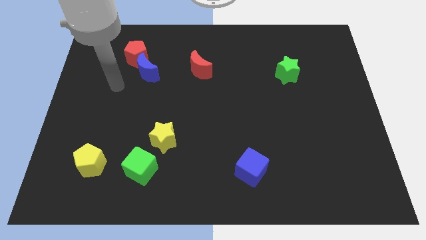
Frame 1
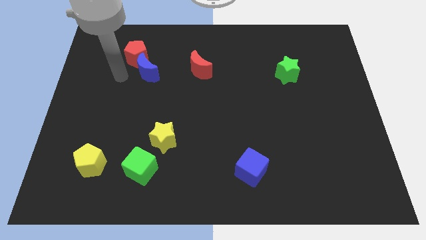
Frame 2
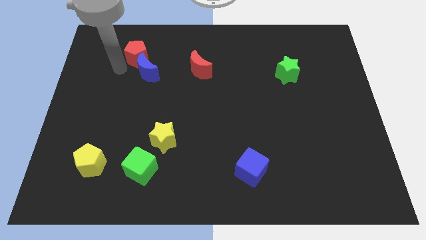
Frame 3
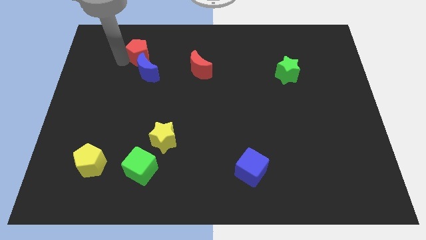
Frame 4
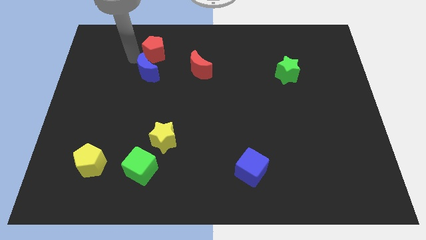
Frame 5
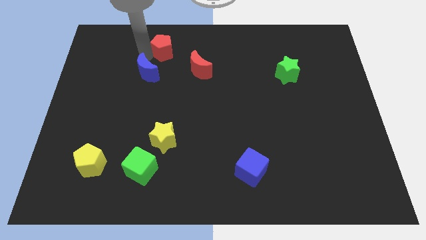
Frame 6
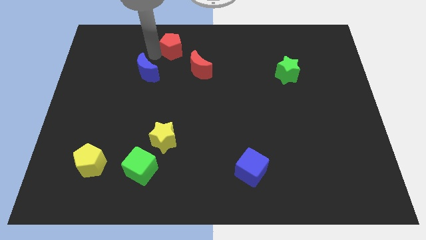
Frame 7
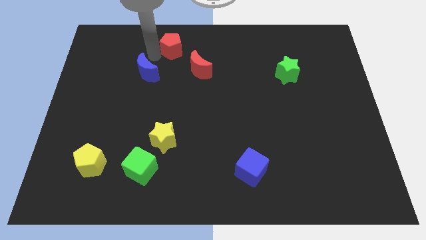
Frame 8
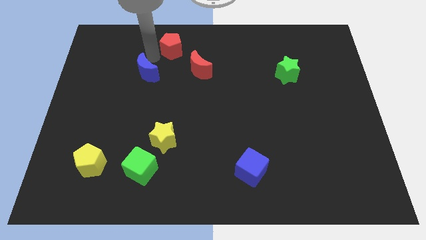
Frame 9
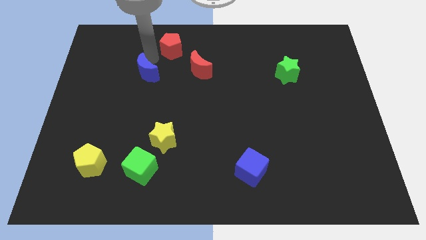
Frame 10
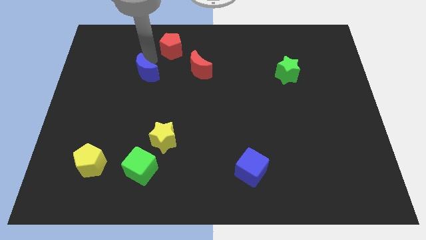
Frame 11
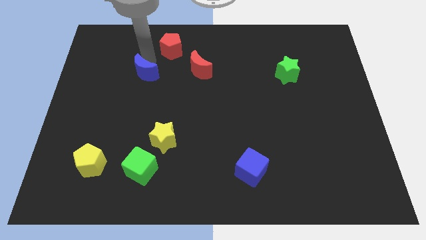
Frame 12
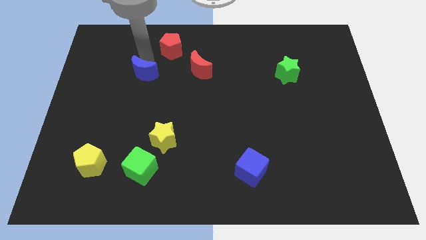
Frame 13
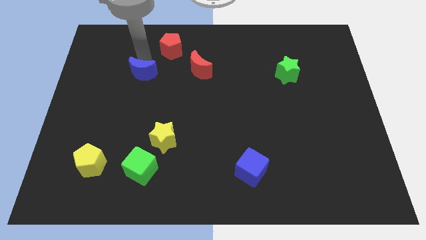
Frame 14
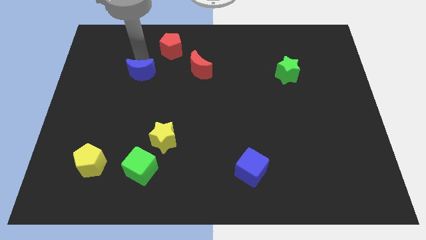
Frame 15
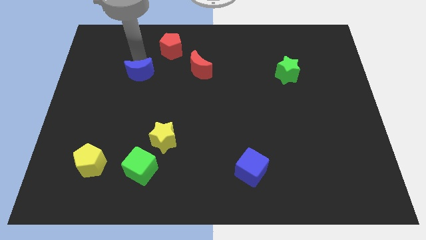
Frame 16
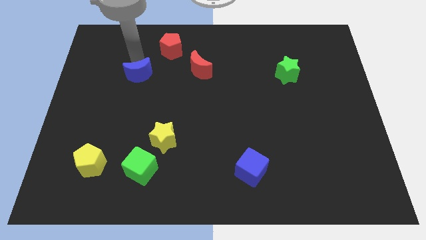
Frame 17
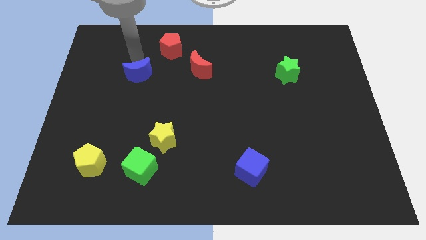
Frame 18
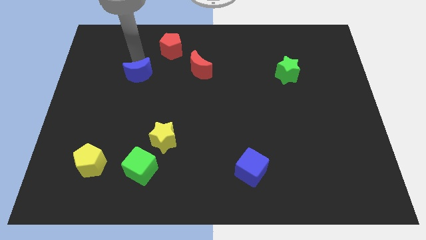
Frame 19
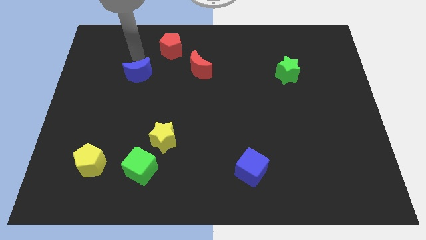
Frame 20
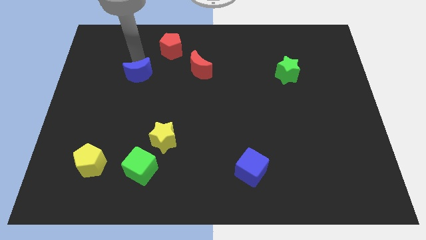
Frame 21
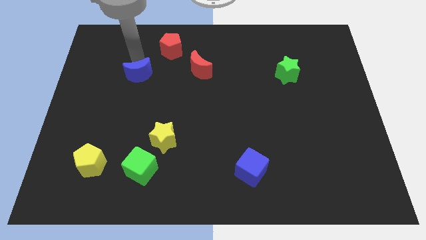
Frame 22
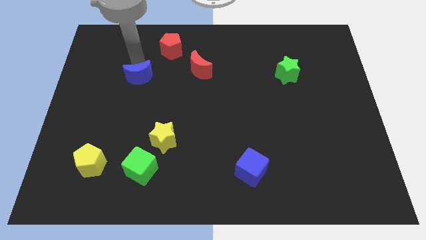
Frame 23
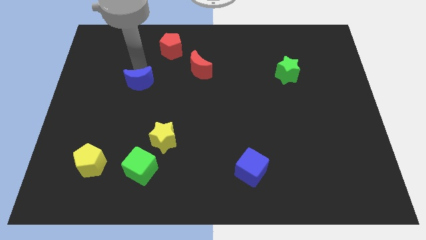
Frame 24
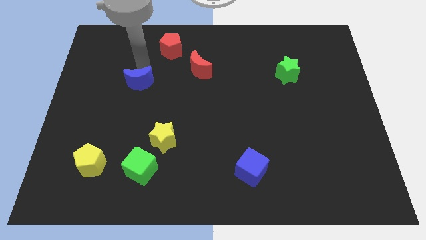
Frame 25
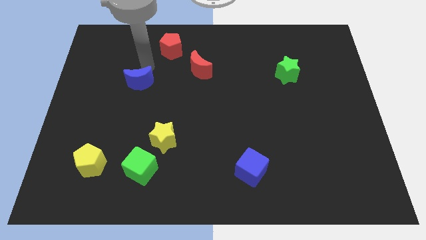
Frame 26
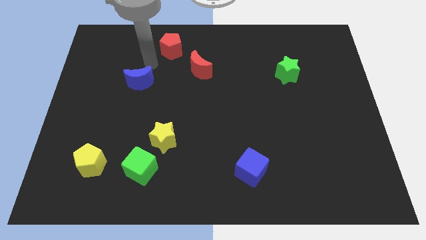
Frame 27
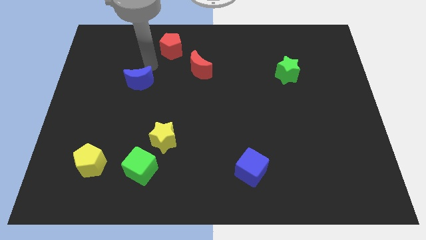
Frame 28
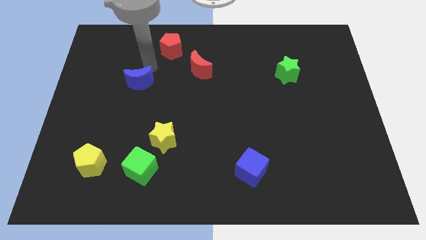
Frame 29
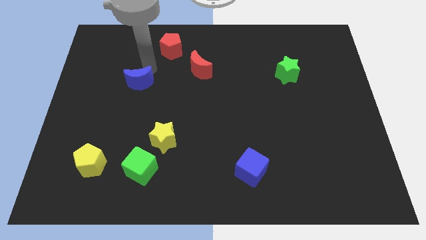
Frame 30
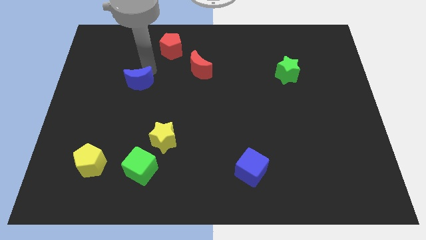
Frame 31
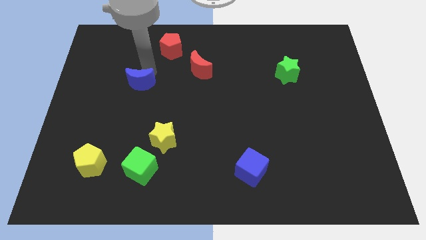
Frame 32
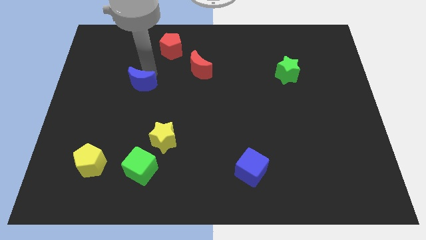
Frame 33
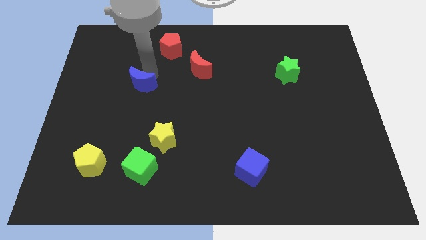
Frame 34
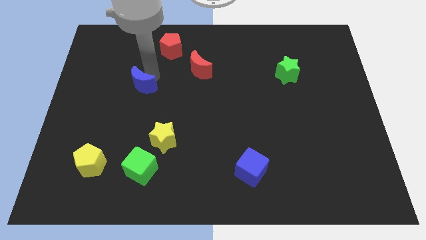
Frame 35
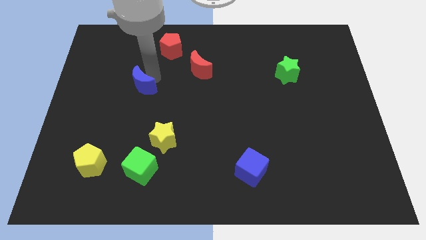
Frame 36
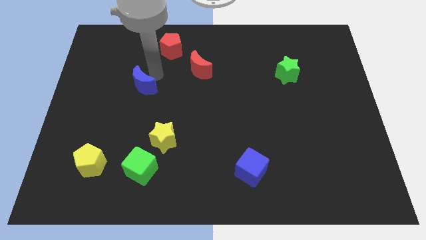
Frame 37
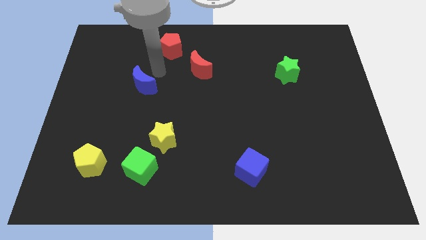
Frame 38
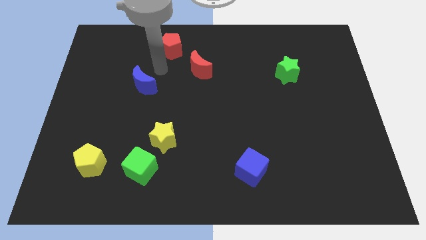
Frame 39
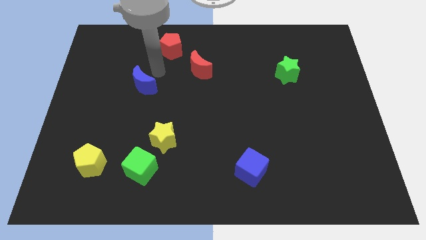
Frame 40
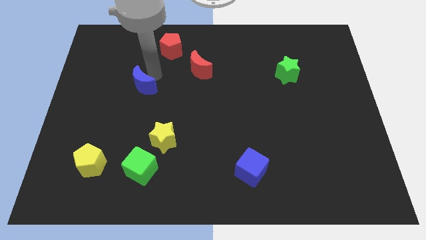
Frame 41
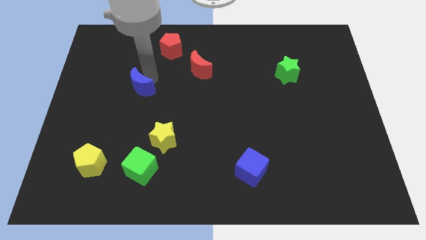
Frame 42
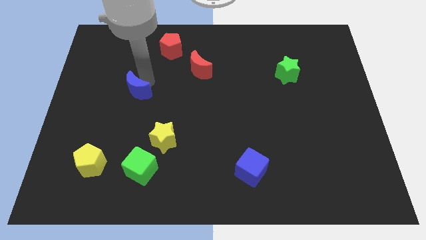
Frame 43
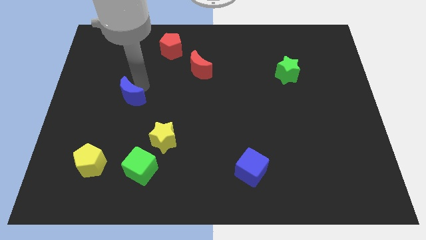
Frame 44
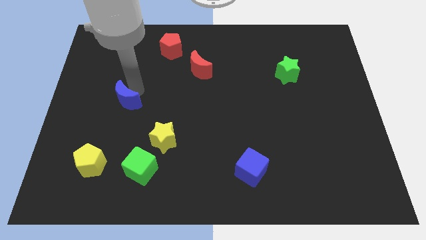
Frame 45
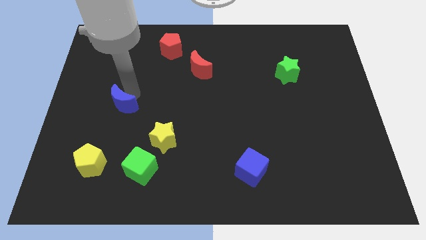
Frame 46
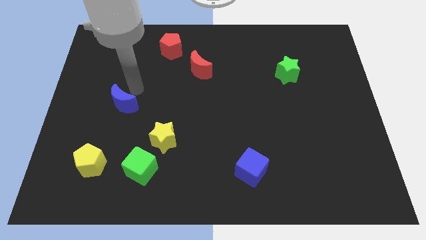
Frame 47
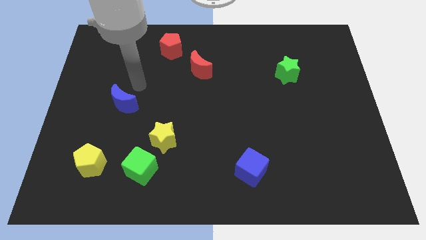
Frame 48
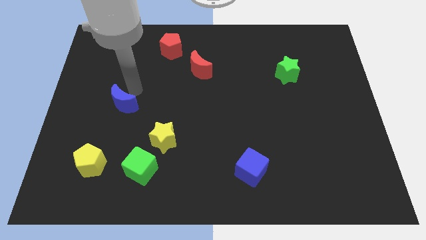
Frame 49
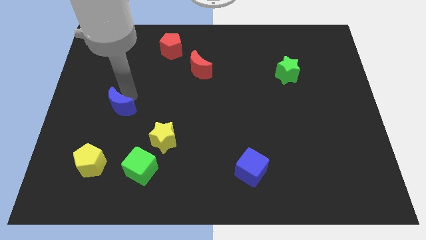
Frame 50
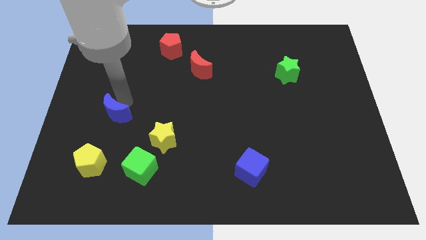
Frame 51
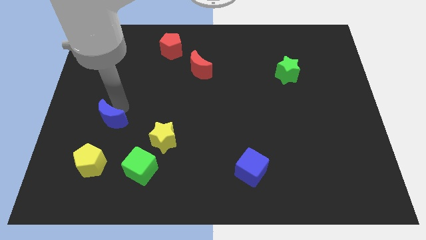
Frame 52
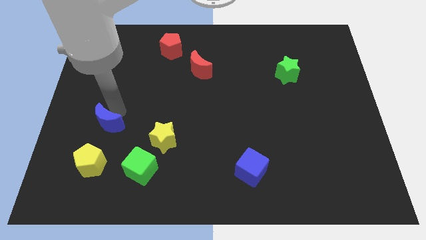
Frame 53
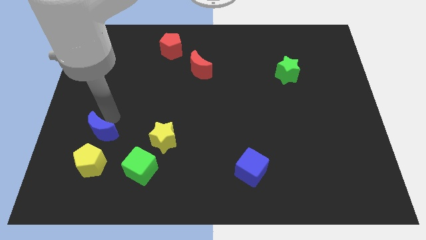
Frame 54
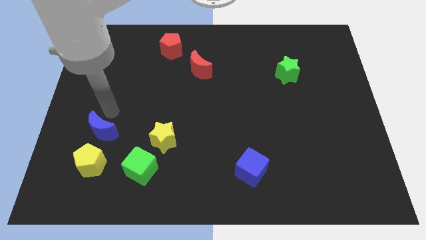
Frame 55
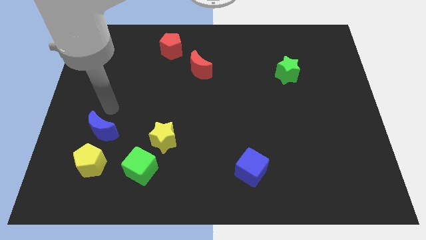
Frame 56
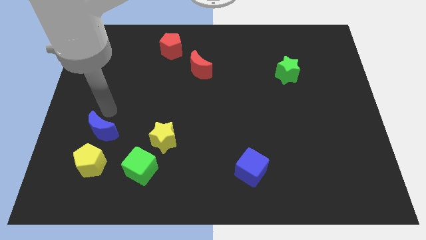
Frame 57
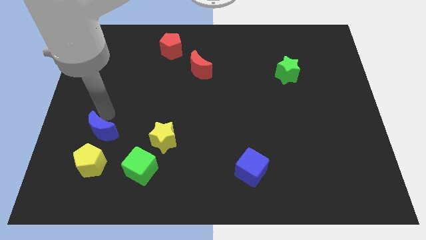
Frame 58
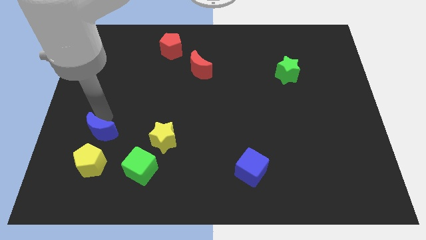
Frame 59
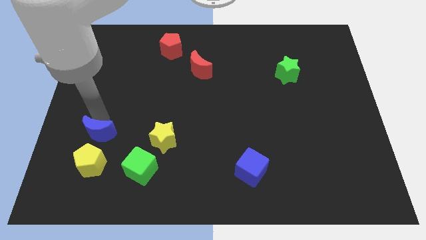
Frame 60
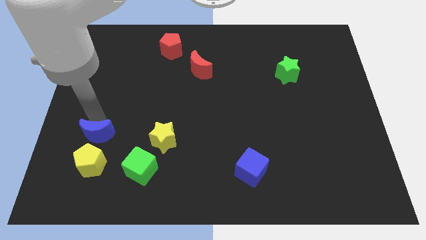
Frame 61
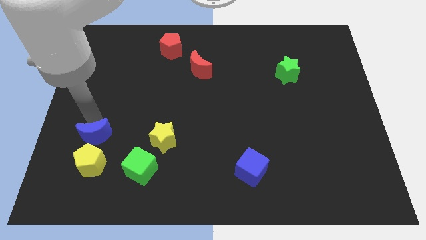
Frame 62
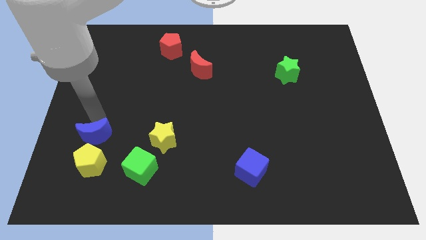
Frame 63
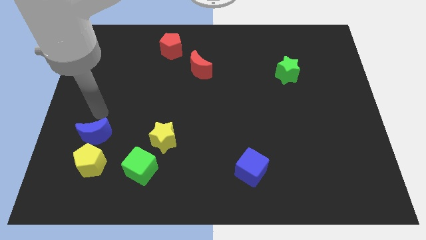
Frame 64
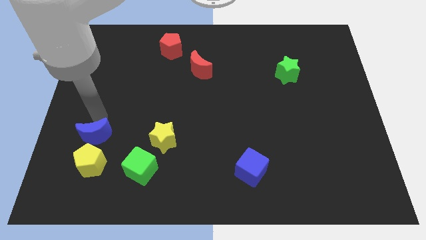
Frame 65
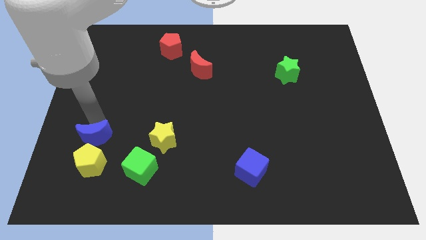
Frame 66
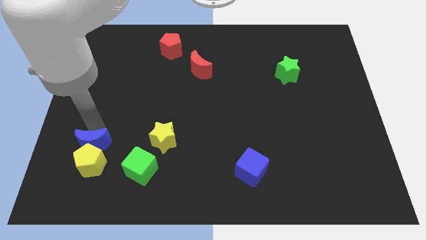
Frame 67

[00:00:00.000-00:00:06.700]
slide the blue moon next to the yellow pentagon

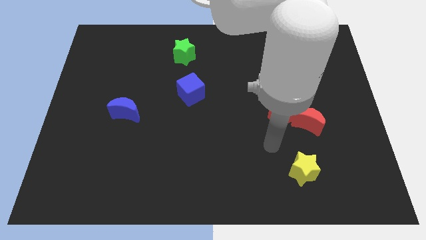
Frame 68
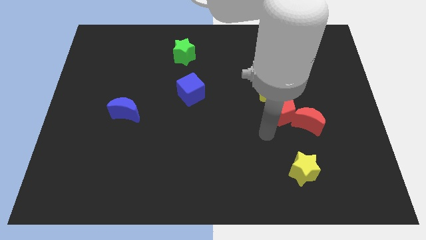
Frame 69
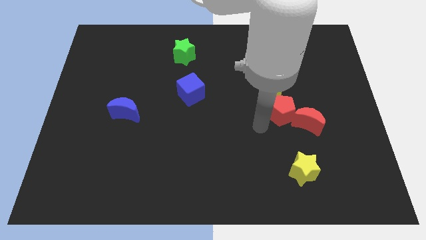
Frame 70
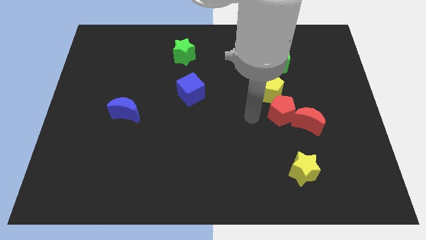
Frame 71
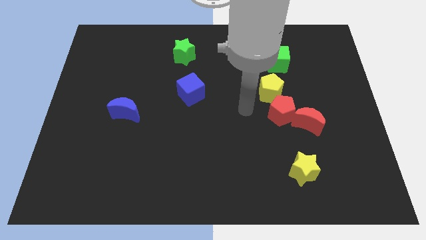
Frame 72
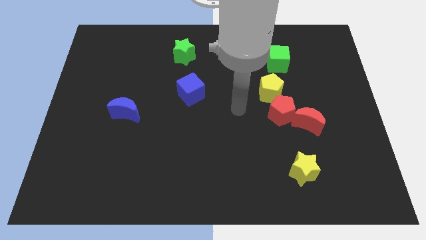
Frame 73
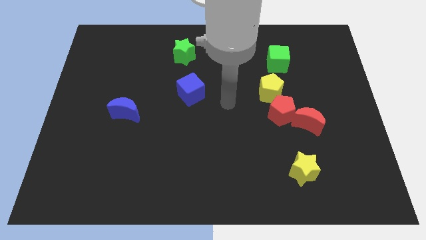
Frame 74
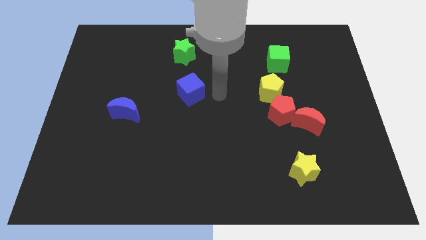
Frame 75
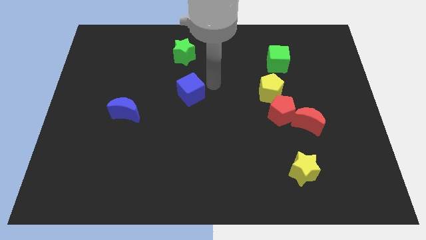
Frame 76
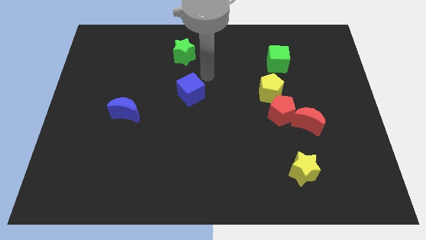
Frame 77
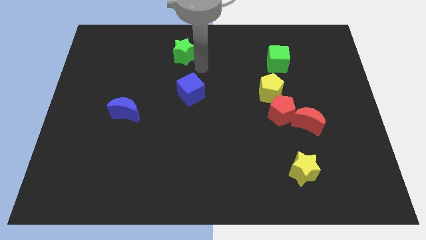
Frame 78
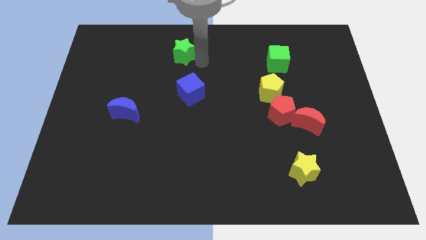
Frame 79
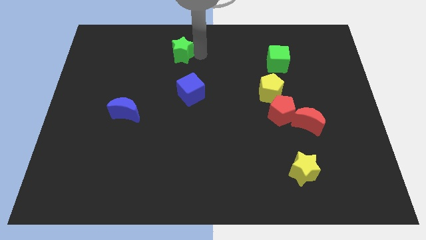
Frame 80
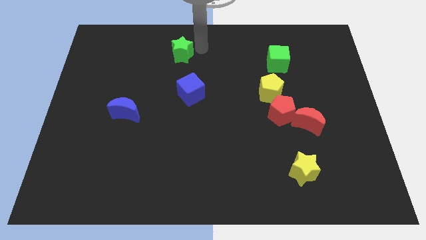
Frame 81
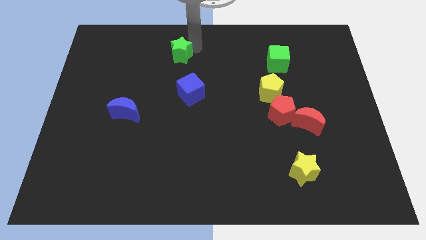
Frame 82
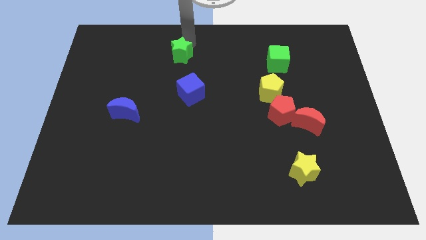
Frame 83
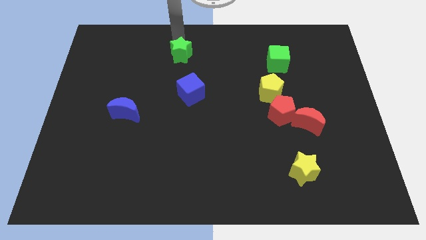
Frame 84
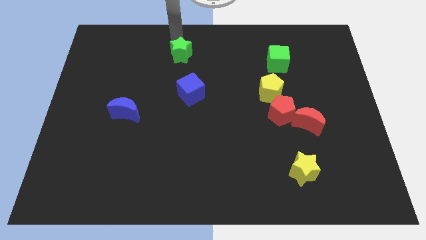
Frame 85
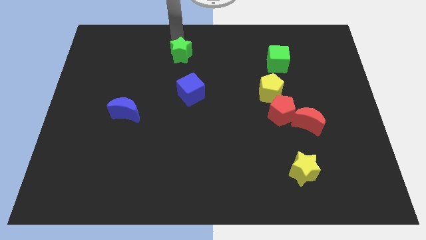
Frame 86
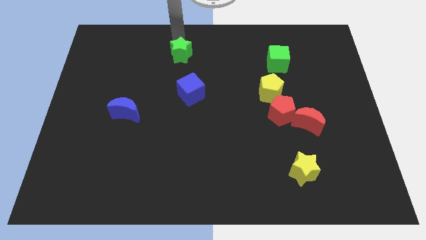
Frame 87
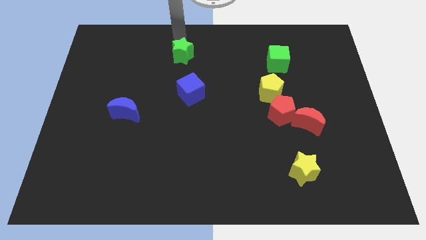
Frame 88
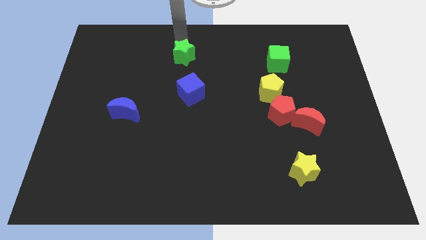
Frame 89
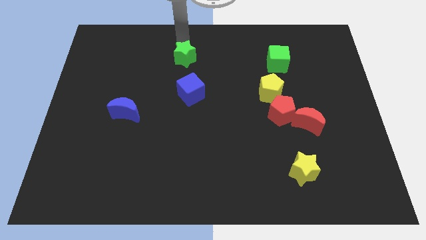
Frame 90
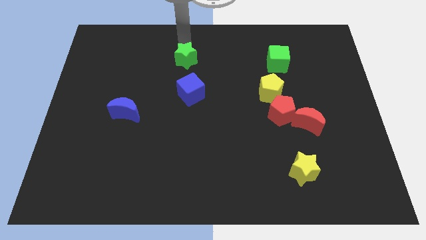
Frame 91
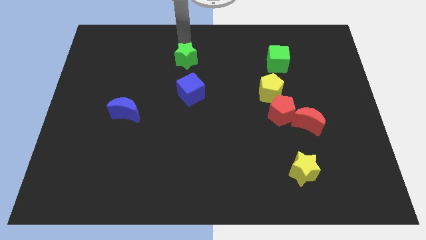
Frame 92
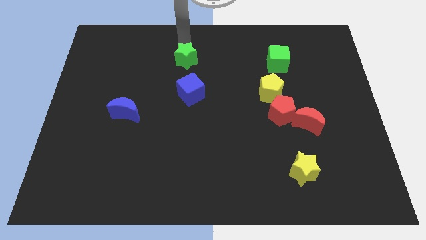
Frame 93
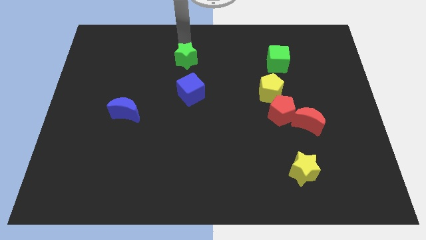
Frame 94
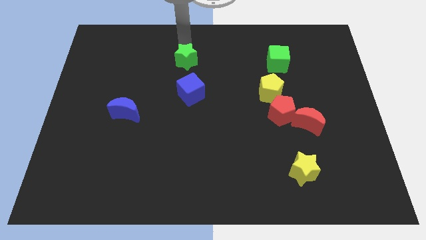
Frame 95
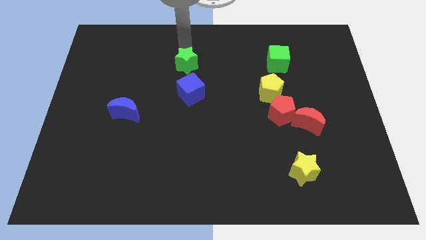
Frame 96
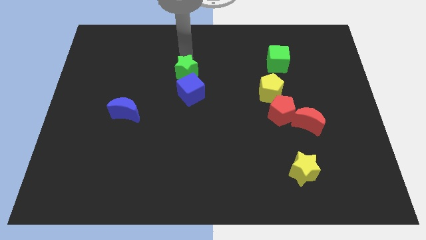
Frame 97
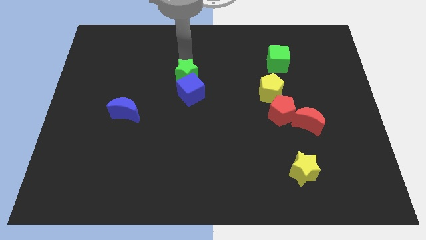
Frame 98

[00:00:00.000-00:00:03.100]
put the green star next to the blue cube
